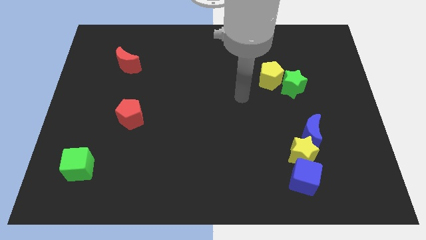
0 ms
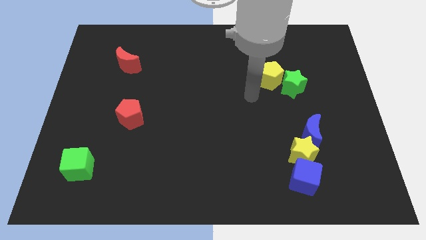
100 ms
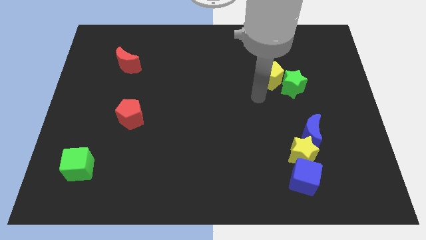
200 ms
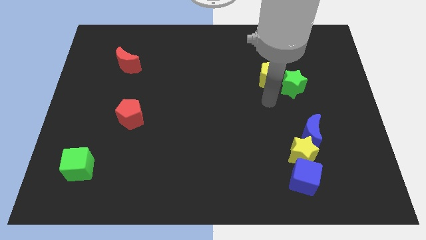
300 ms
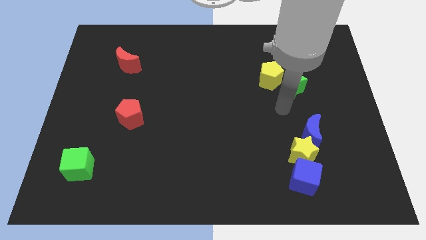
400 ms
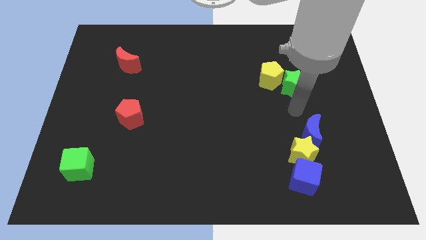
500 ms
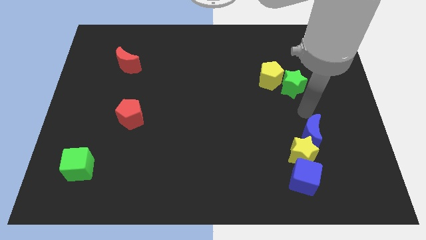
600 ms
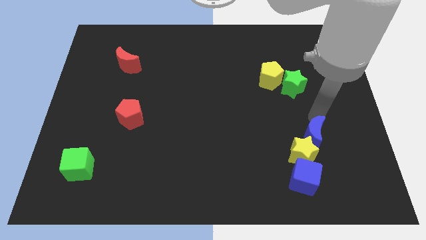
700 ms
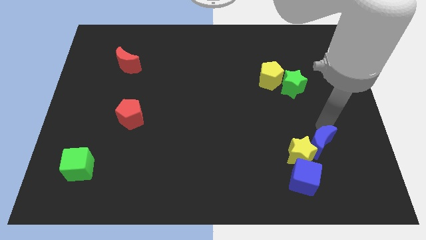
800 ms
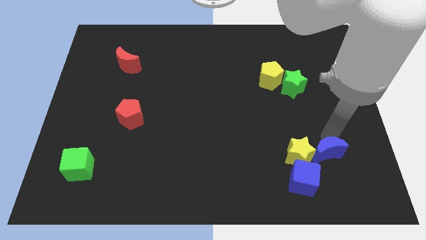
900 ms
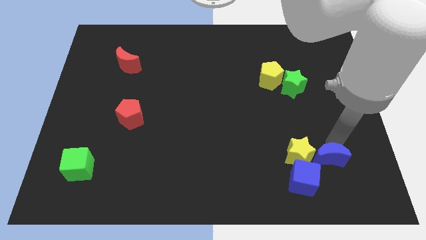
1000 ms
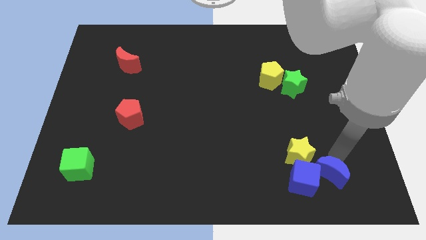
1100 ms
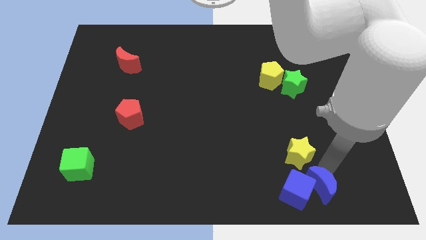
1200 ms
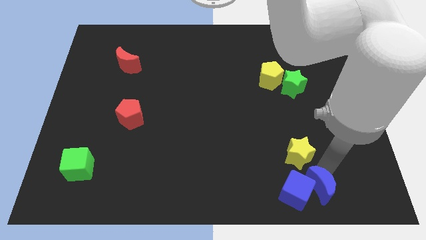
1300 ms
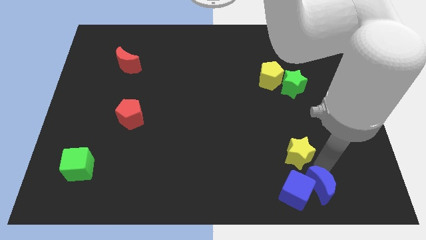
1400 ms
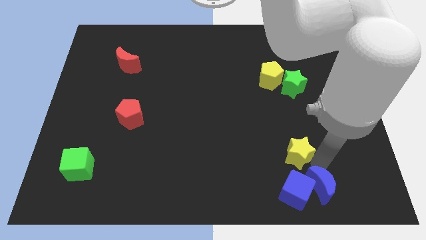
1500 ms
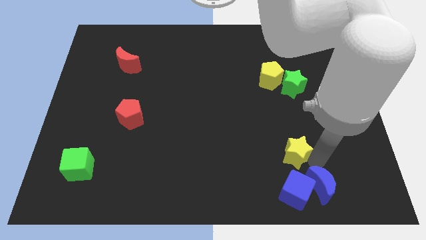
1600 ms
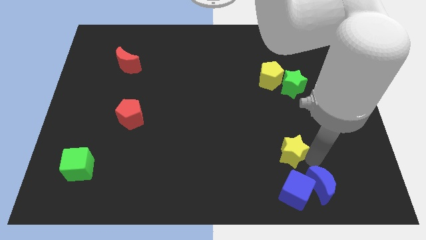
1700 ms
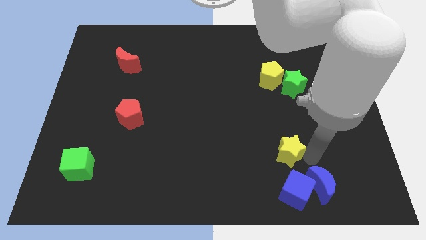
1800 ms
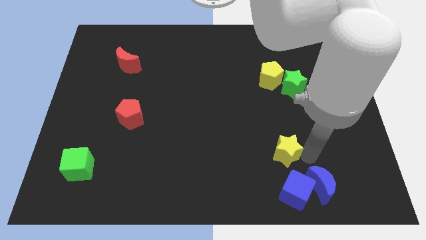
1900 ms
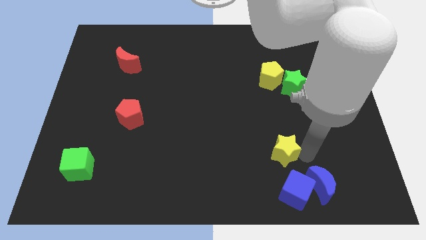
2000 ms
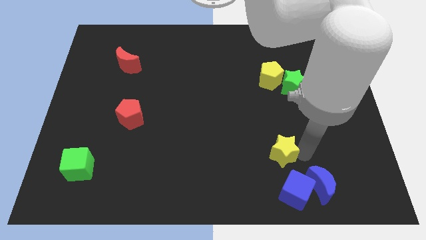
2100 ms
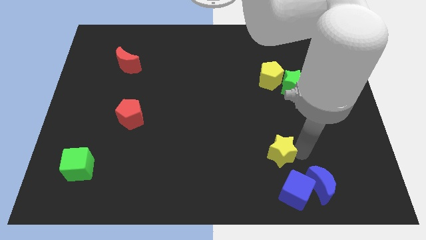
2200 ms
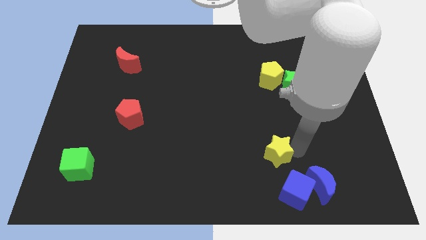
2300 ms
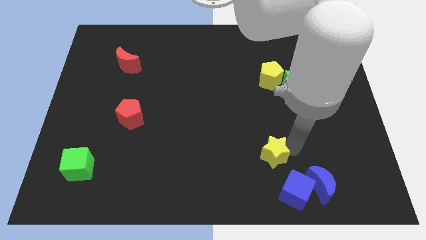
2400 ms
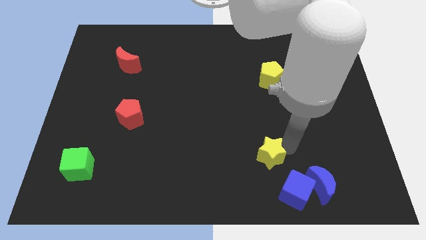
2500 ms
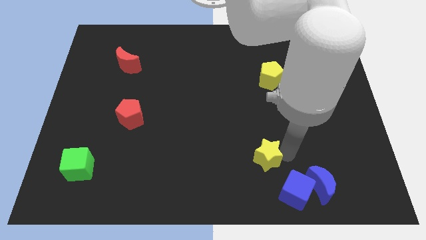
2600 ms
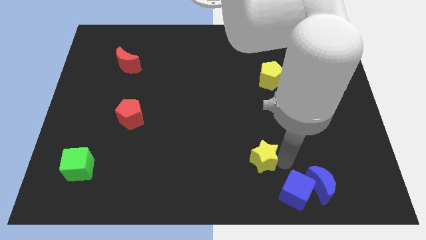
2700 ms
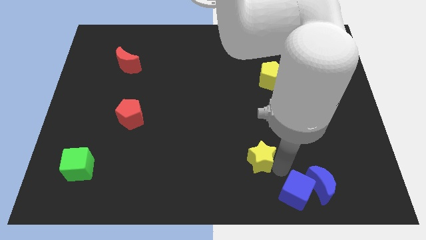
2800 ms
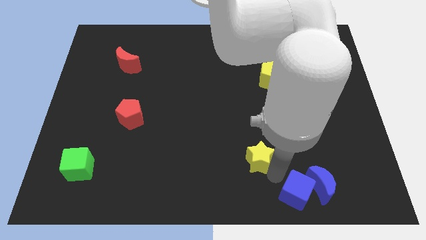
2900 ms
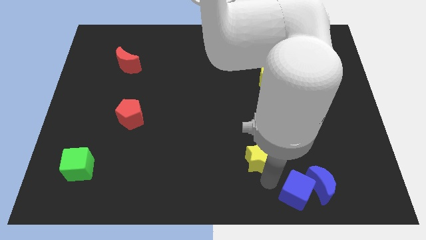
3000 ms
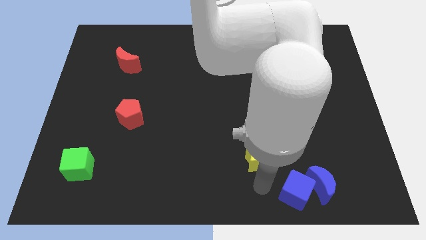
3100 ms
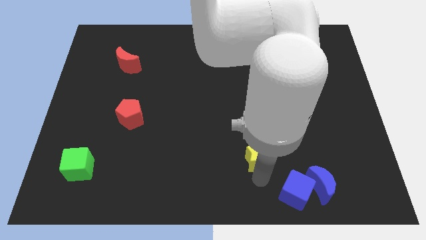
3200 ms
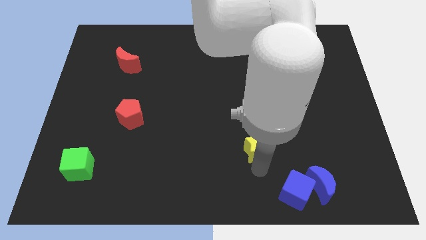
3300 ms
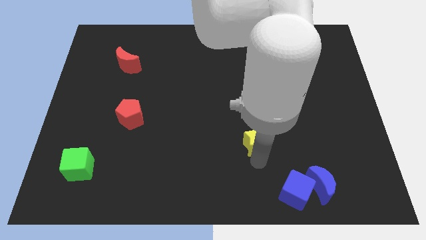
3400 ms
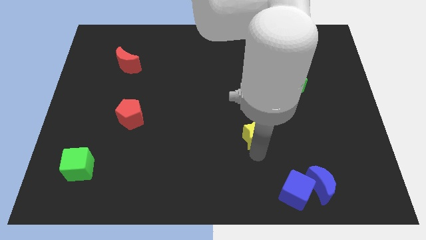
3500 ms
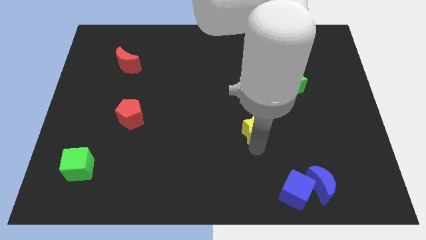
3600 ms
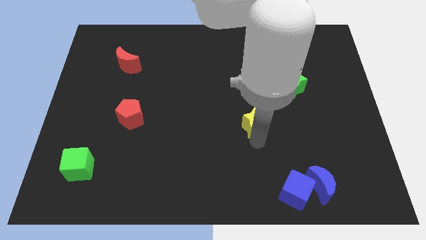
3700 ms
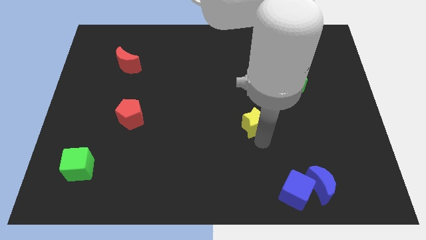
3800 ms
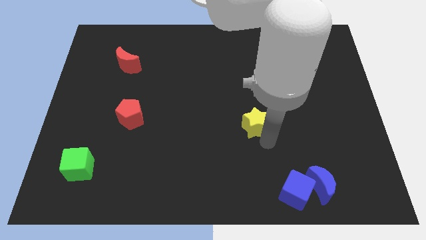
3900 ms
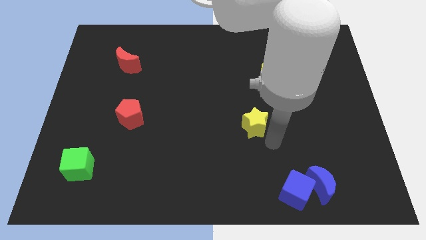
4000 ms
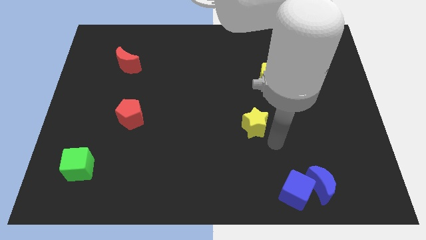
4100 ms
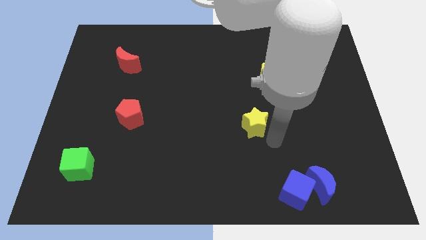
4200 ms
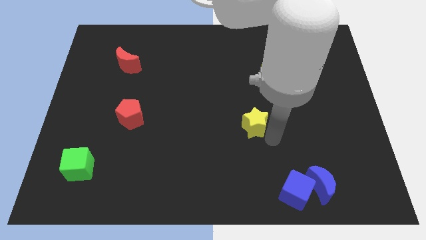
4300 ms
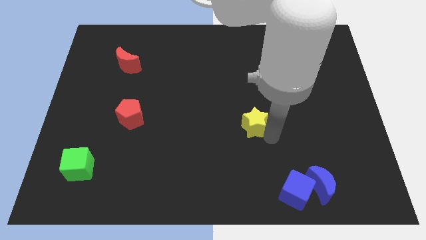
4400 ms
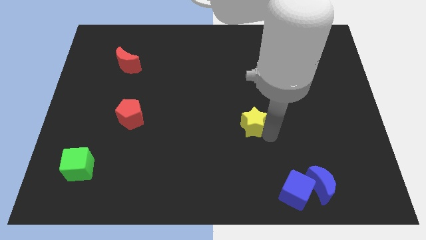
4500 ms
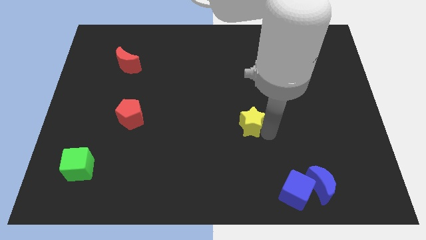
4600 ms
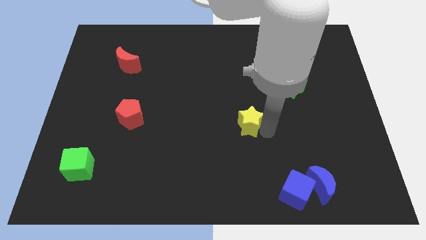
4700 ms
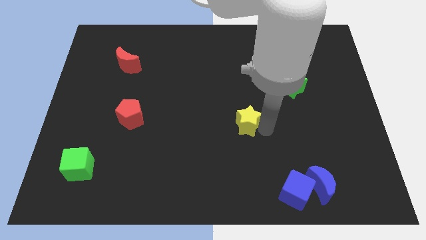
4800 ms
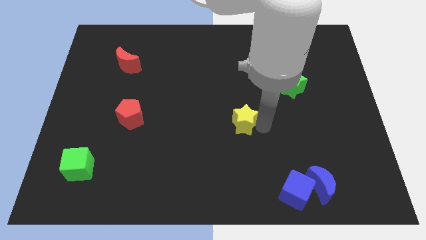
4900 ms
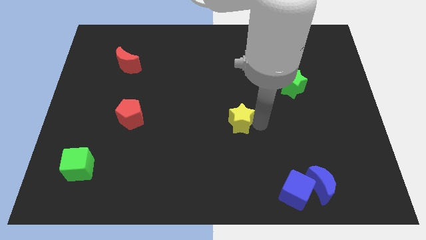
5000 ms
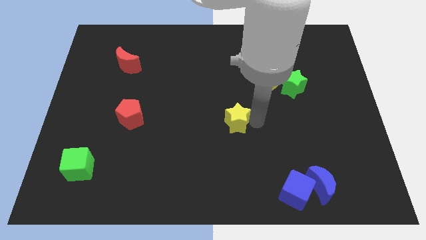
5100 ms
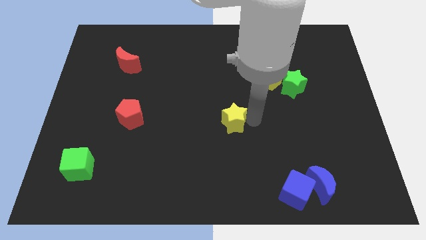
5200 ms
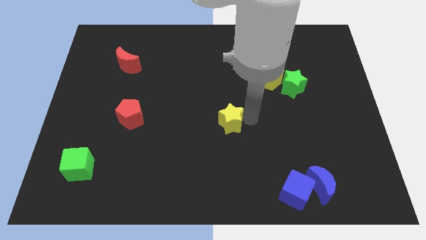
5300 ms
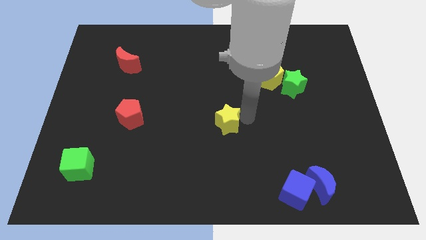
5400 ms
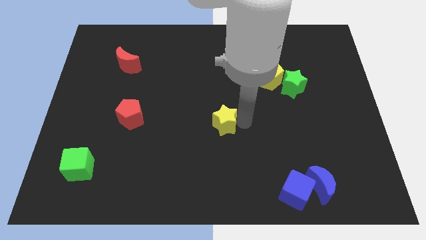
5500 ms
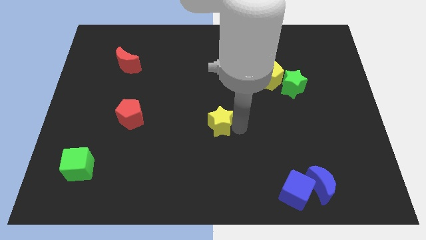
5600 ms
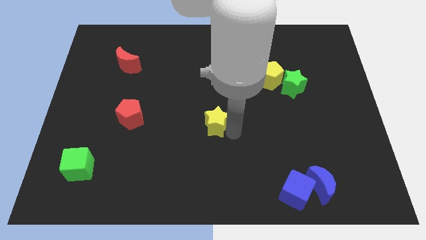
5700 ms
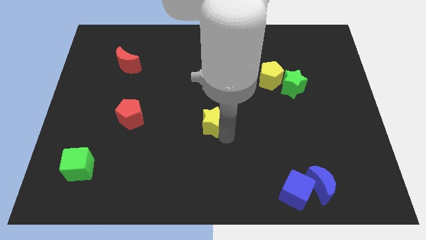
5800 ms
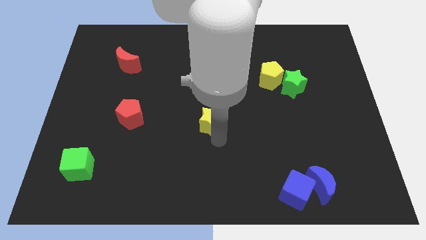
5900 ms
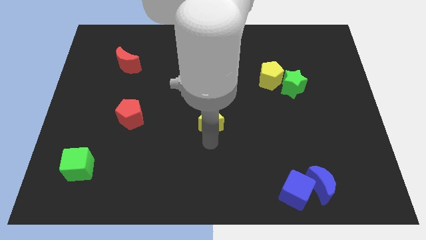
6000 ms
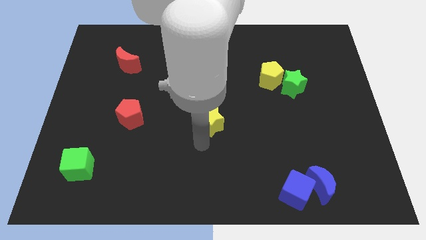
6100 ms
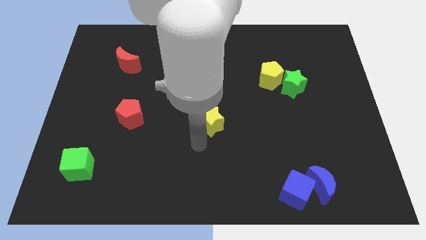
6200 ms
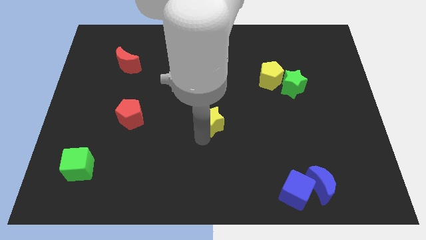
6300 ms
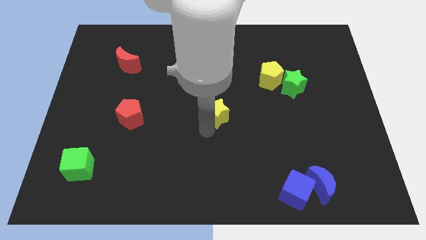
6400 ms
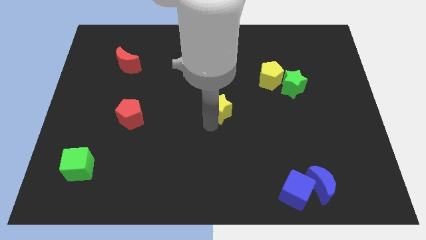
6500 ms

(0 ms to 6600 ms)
push the yellow star up and then to the left

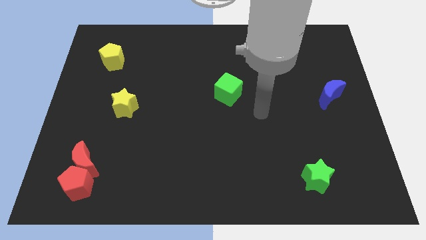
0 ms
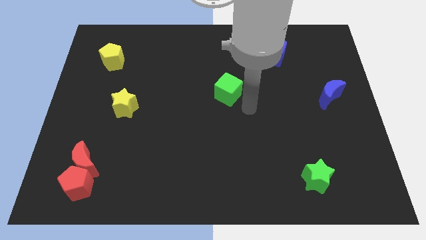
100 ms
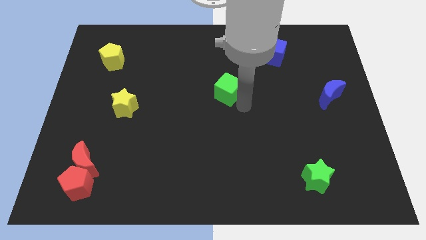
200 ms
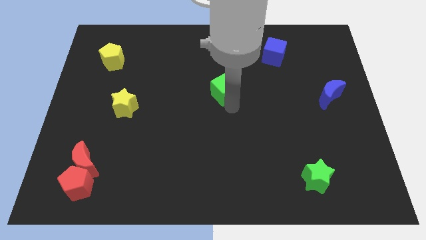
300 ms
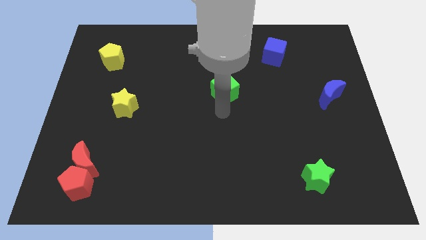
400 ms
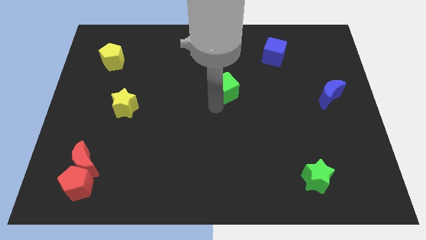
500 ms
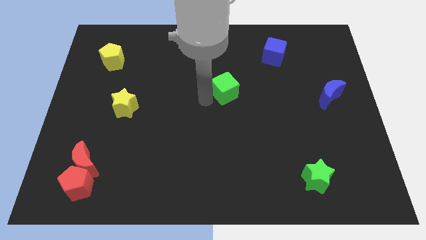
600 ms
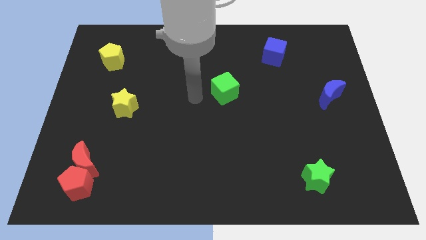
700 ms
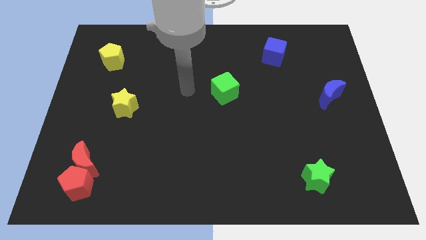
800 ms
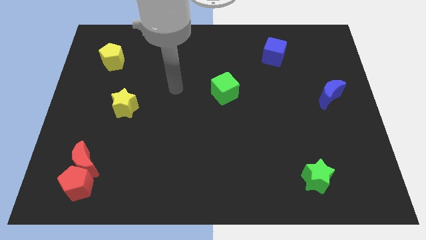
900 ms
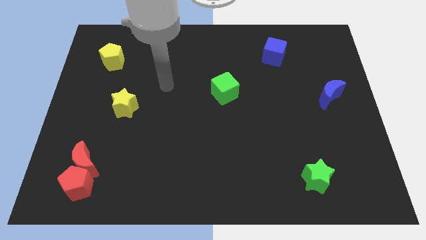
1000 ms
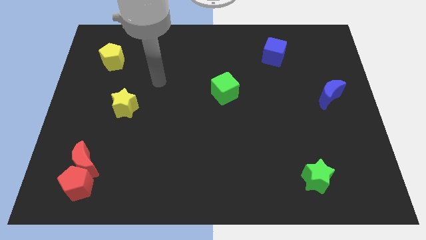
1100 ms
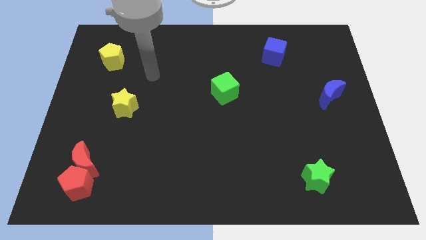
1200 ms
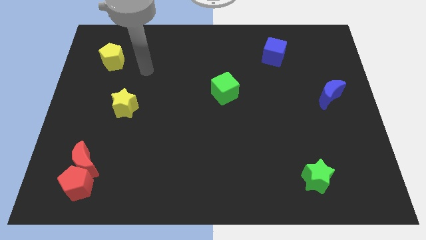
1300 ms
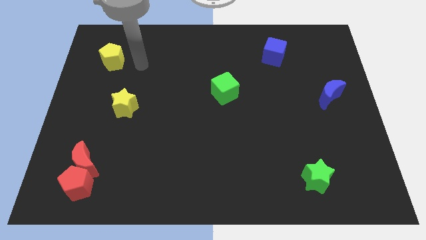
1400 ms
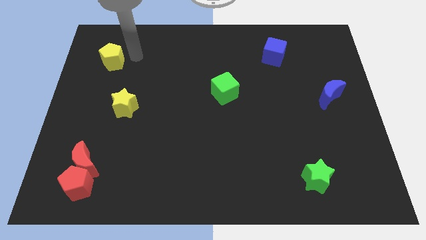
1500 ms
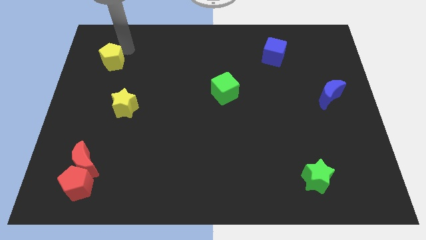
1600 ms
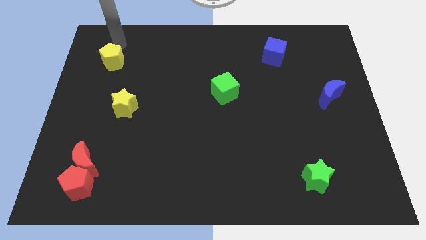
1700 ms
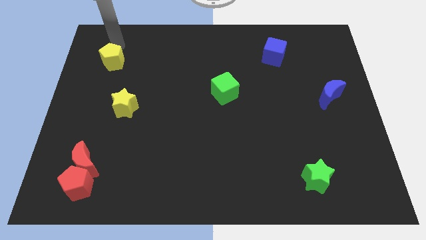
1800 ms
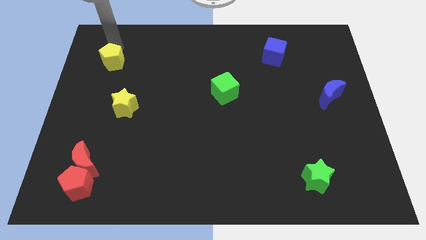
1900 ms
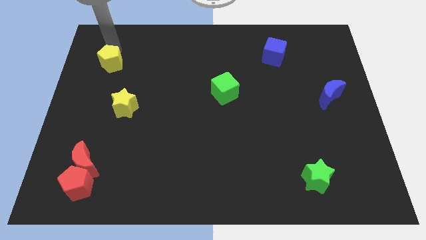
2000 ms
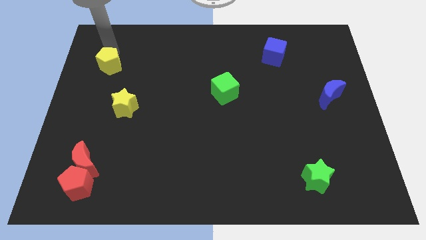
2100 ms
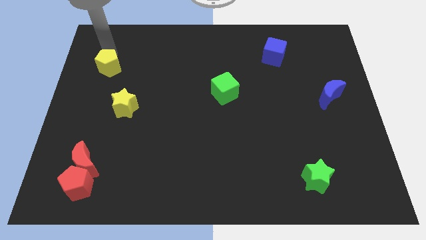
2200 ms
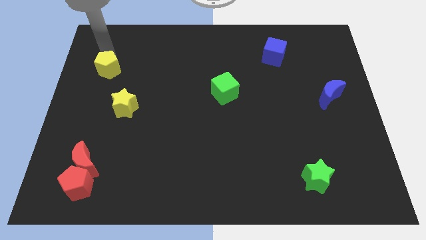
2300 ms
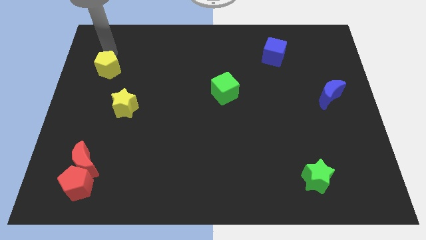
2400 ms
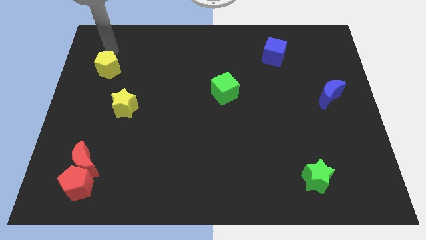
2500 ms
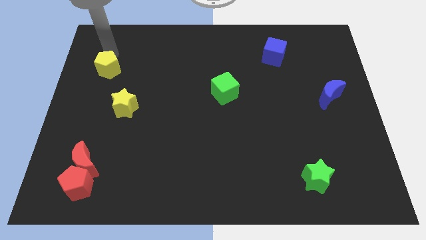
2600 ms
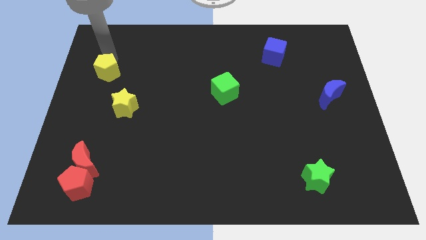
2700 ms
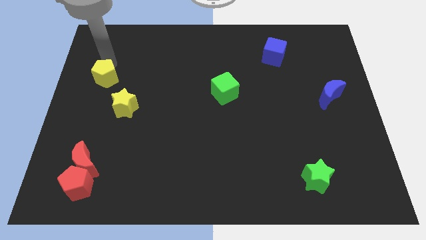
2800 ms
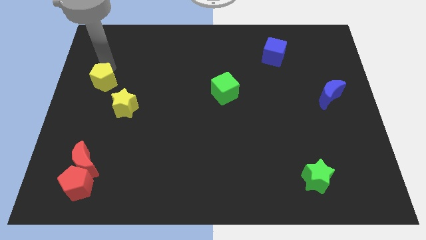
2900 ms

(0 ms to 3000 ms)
slide the yellow pentagon downwards a little
